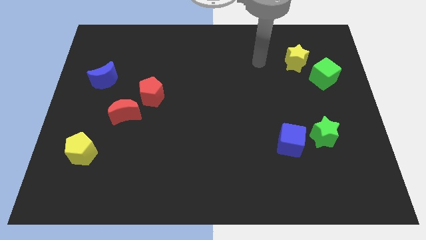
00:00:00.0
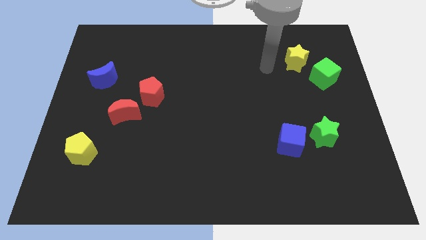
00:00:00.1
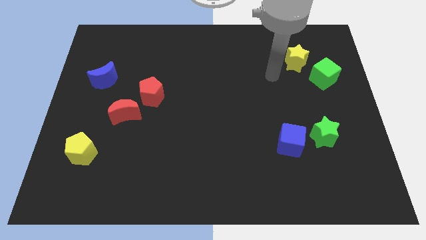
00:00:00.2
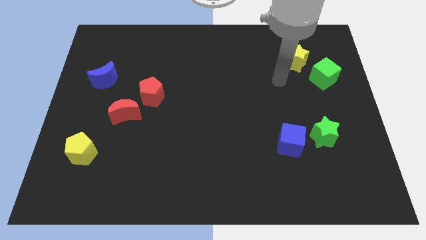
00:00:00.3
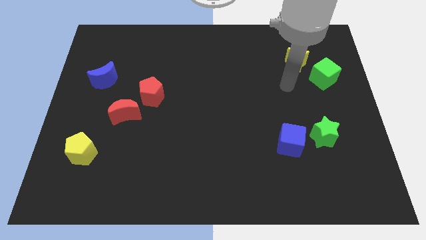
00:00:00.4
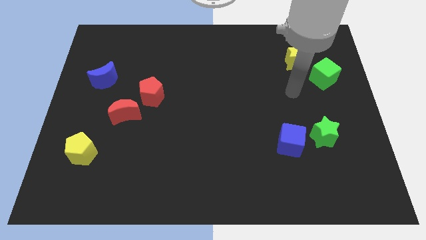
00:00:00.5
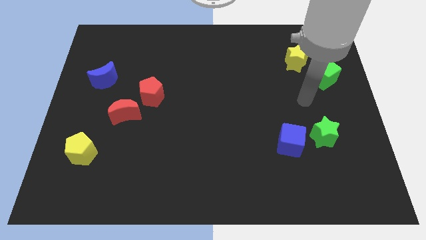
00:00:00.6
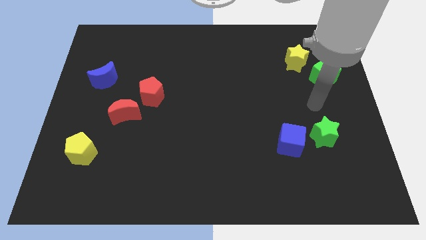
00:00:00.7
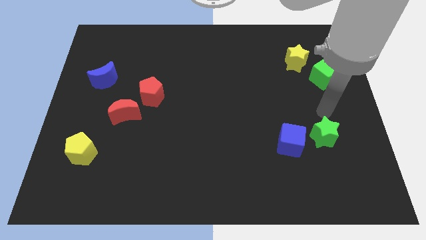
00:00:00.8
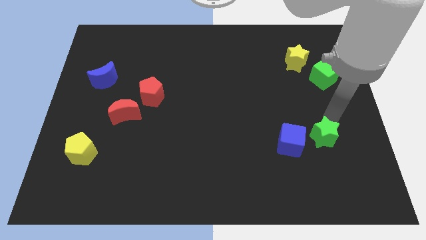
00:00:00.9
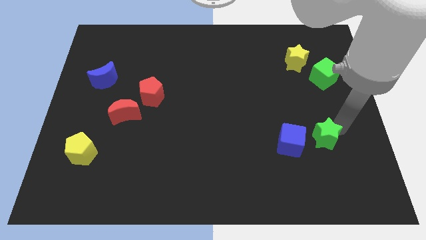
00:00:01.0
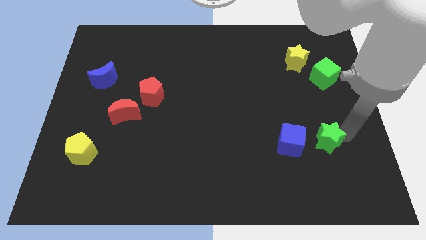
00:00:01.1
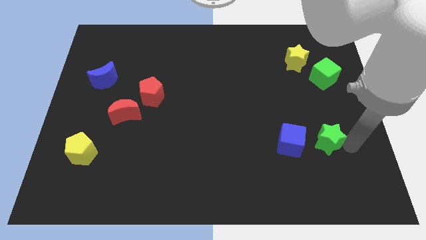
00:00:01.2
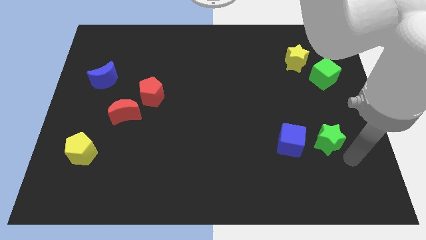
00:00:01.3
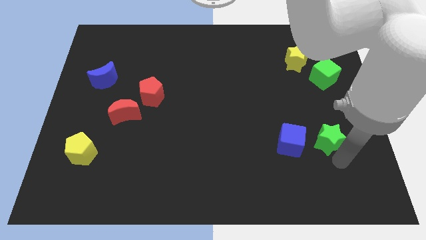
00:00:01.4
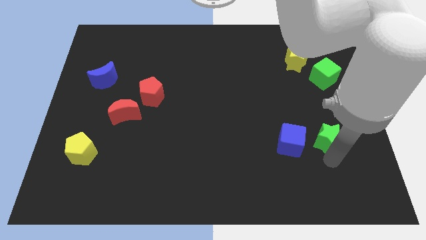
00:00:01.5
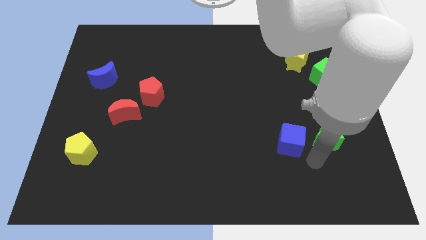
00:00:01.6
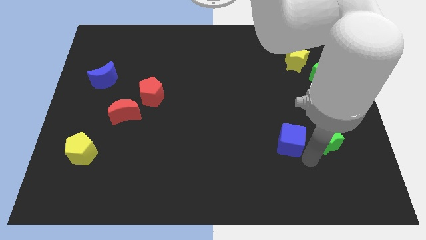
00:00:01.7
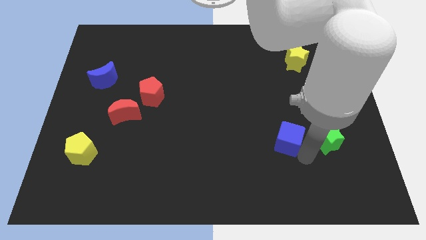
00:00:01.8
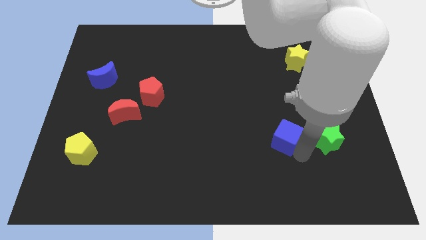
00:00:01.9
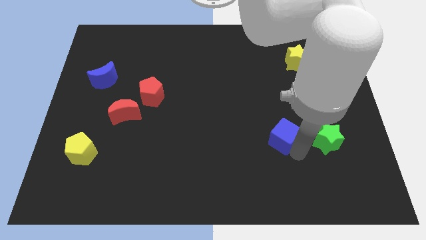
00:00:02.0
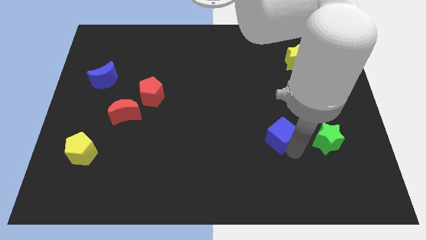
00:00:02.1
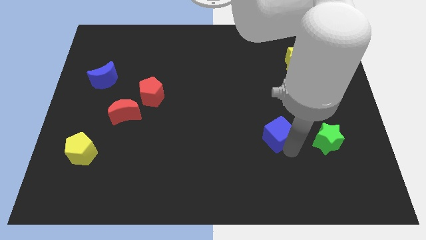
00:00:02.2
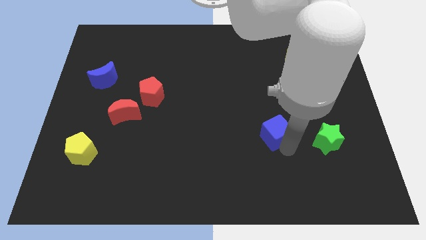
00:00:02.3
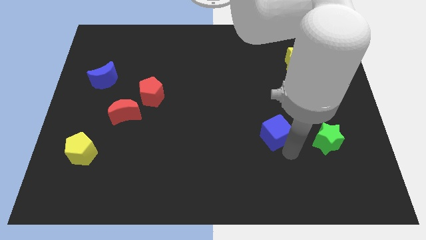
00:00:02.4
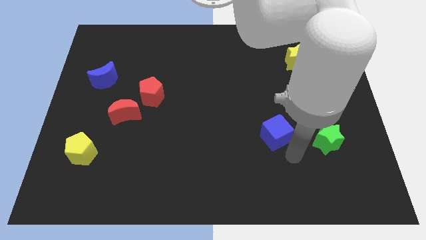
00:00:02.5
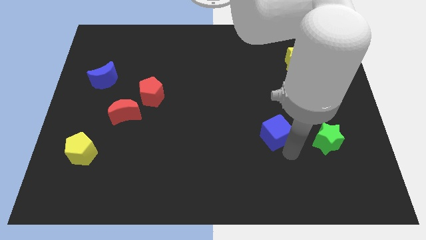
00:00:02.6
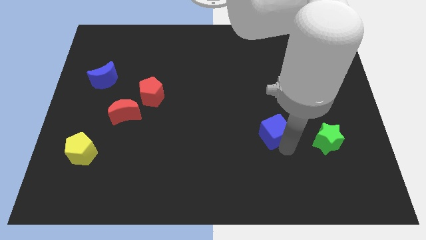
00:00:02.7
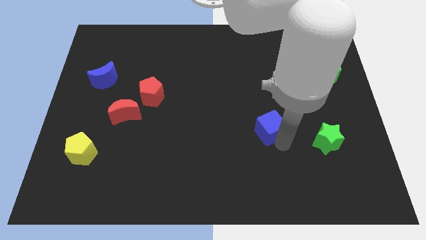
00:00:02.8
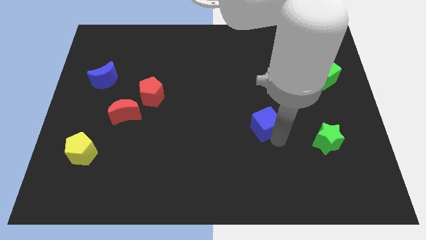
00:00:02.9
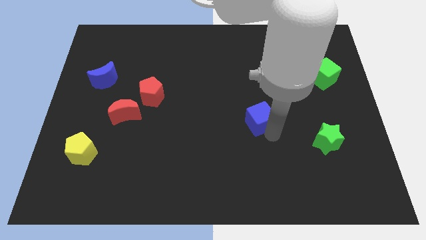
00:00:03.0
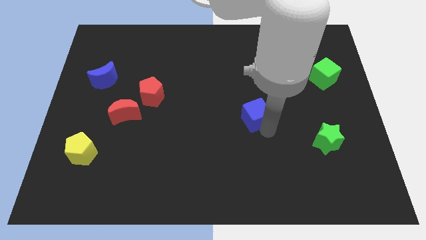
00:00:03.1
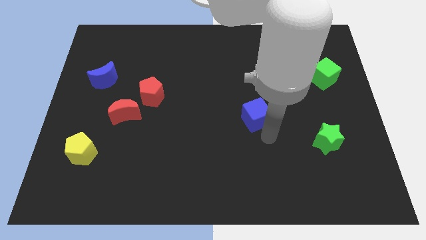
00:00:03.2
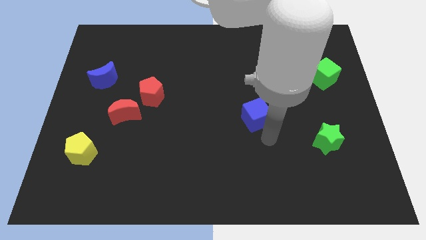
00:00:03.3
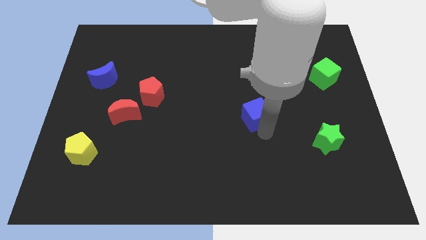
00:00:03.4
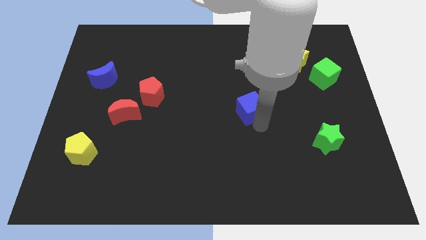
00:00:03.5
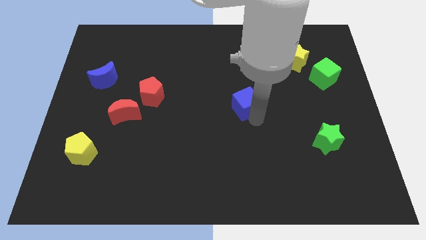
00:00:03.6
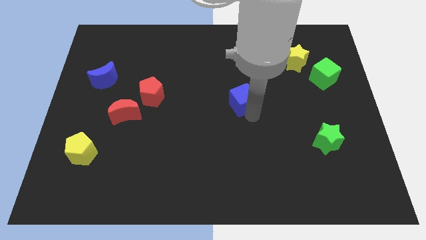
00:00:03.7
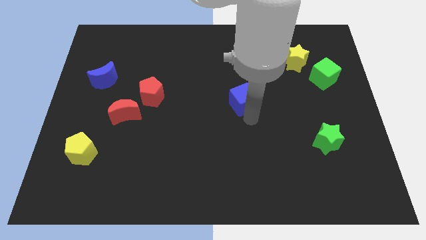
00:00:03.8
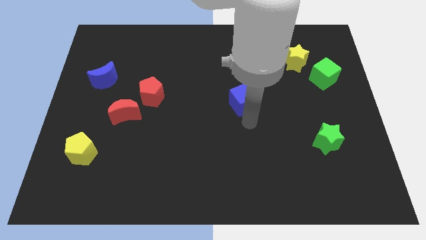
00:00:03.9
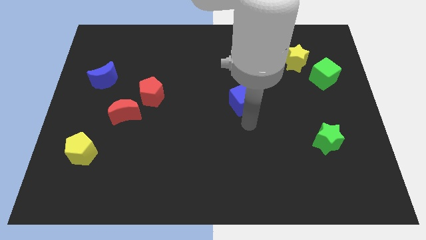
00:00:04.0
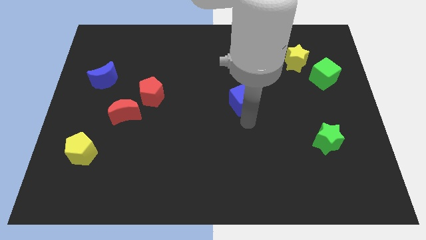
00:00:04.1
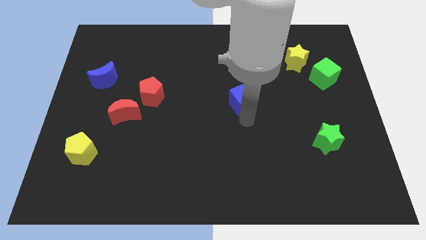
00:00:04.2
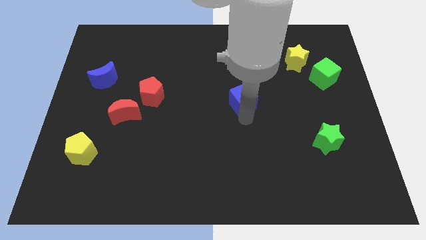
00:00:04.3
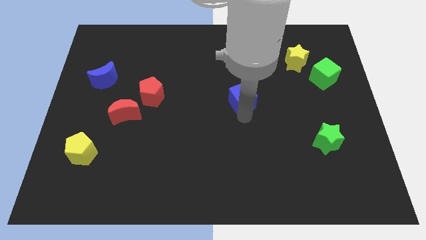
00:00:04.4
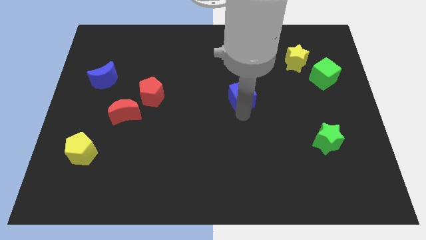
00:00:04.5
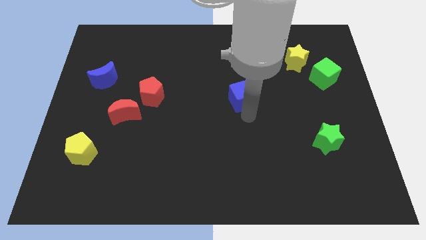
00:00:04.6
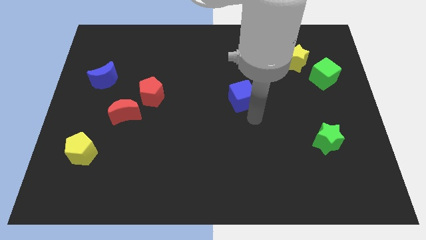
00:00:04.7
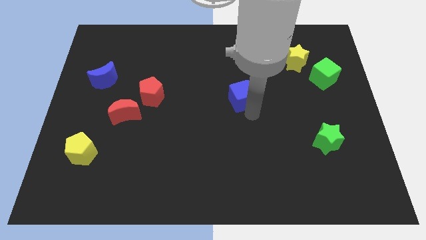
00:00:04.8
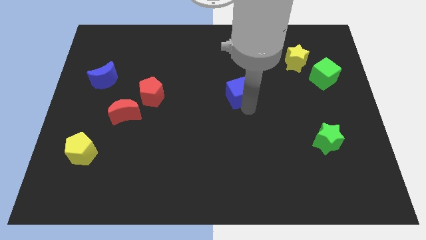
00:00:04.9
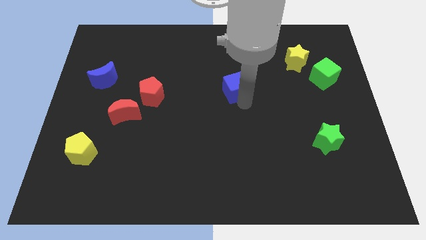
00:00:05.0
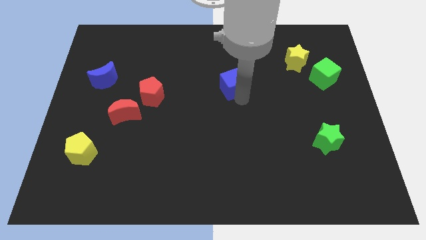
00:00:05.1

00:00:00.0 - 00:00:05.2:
move the blue cube up and left diagonally

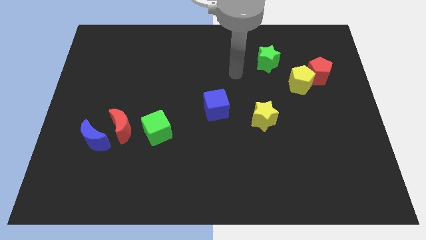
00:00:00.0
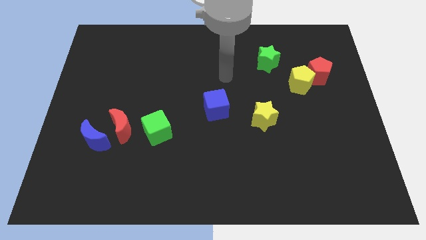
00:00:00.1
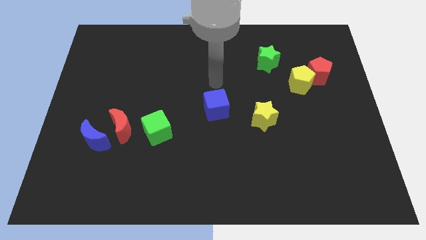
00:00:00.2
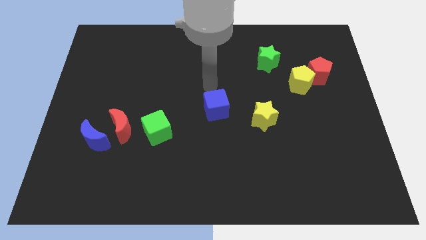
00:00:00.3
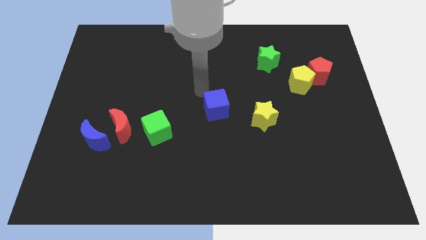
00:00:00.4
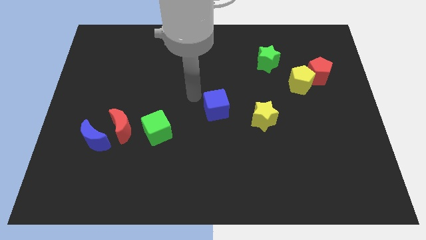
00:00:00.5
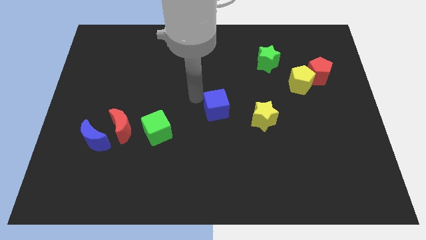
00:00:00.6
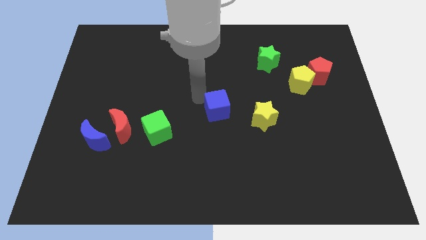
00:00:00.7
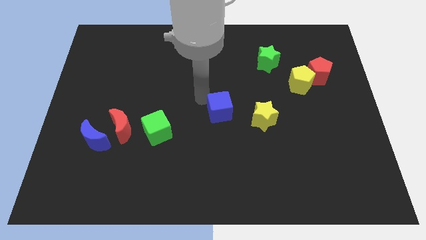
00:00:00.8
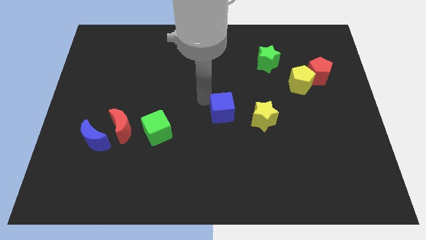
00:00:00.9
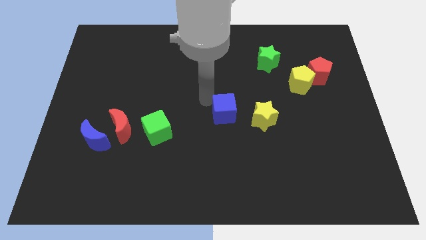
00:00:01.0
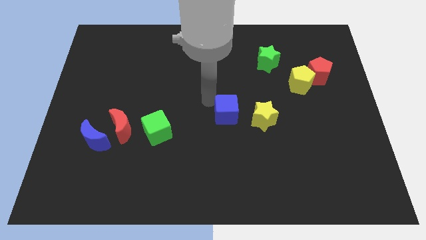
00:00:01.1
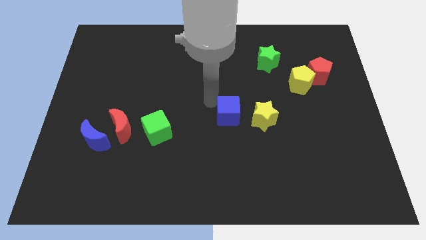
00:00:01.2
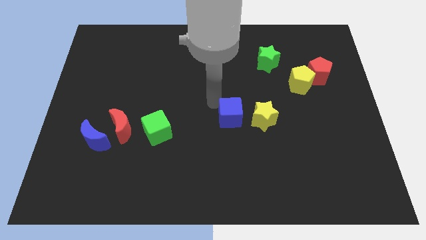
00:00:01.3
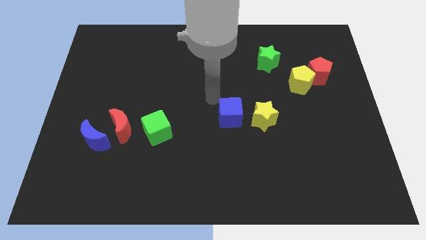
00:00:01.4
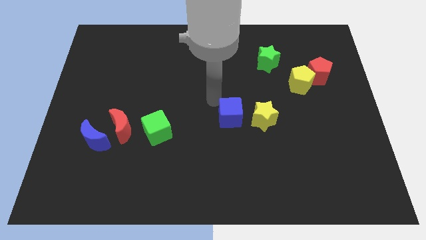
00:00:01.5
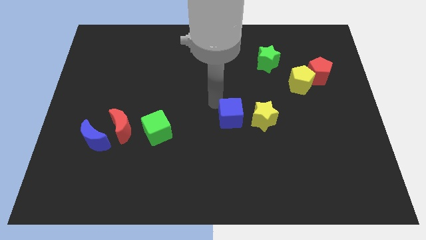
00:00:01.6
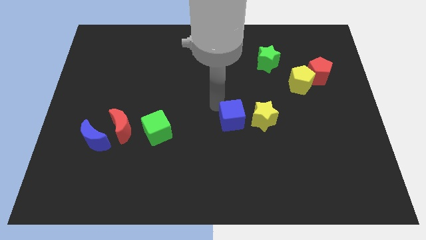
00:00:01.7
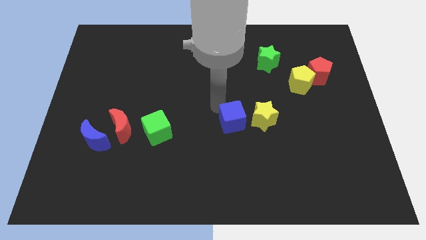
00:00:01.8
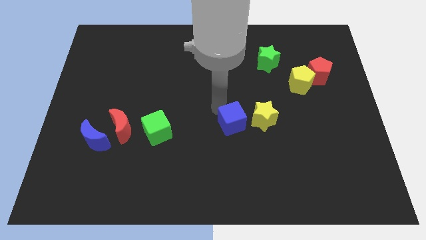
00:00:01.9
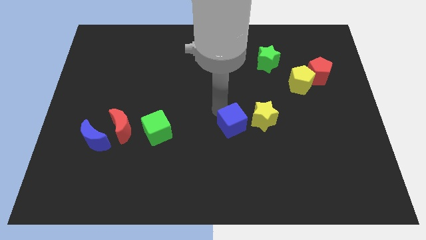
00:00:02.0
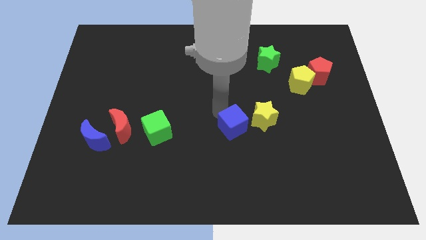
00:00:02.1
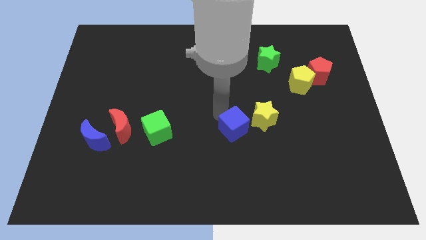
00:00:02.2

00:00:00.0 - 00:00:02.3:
move the blue cube downwards and right diagonally a little

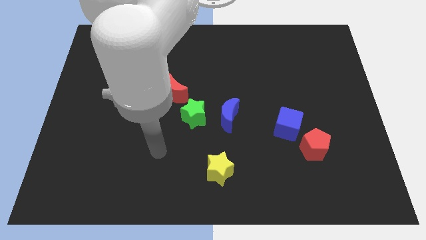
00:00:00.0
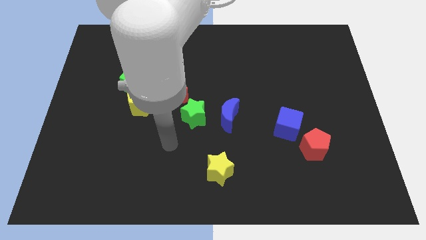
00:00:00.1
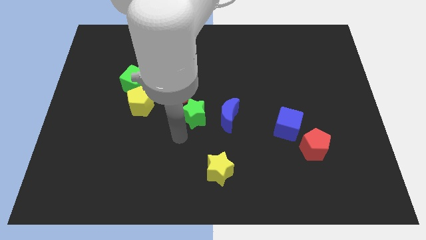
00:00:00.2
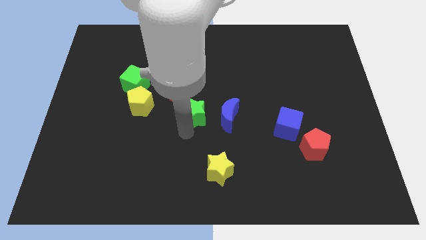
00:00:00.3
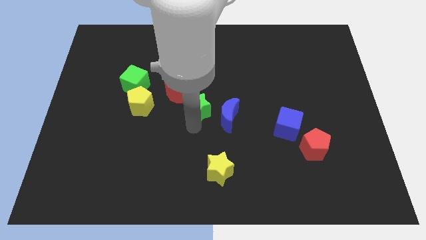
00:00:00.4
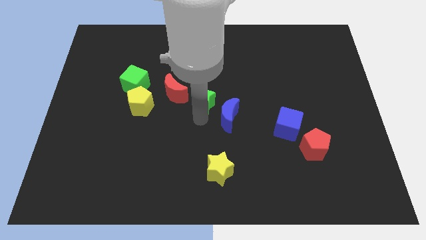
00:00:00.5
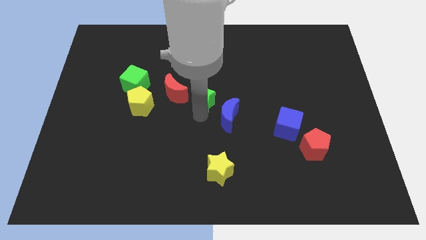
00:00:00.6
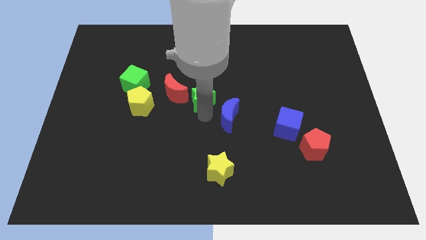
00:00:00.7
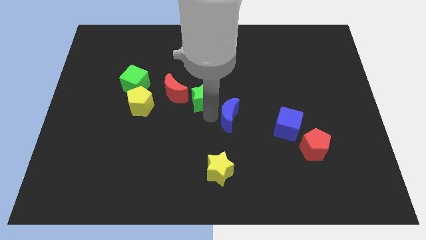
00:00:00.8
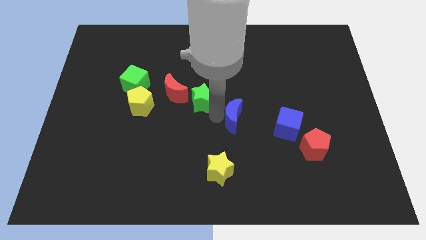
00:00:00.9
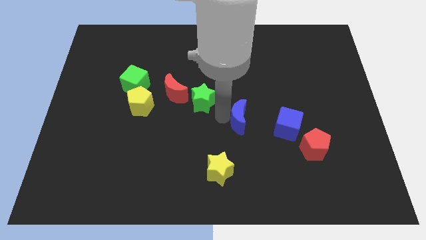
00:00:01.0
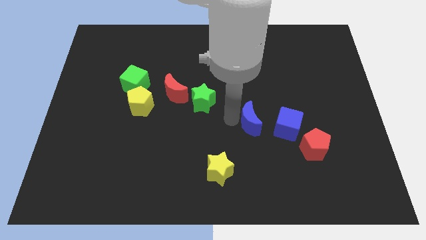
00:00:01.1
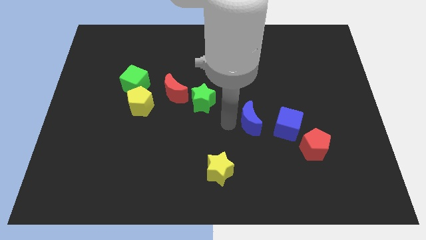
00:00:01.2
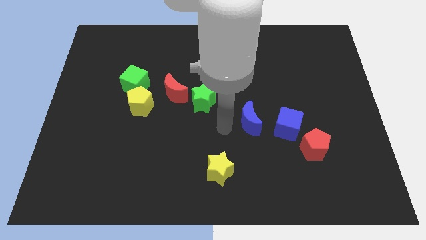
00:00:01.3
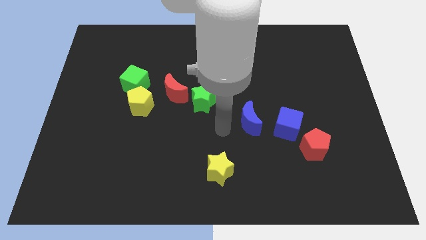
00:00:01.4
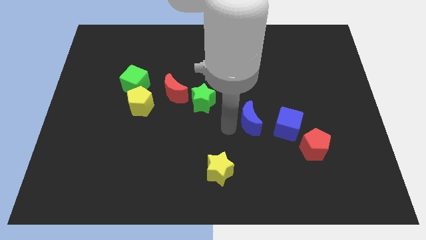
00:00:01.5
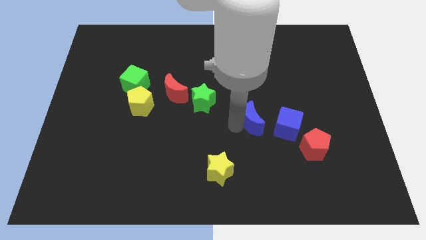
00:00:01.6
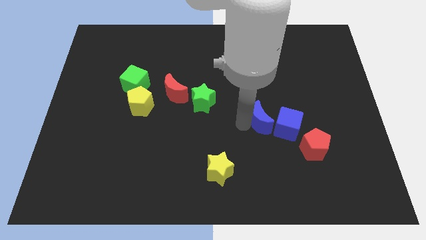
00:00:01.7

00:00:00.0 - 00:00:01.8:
push the blue moon to the right somewhat
